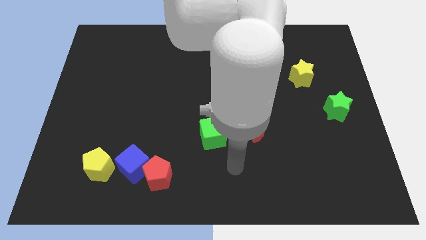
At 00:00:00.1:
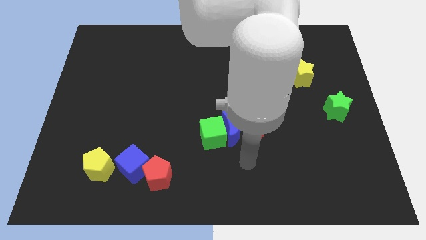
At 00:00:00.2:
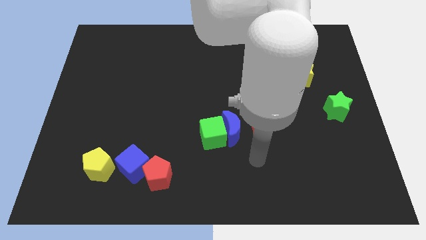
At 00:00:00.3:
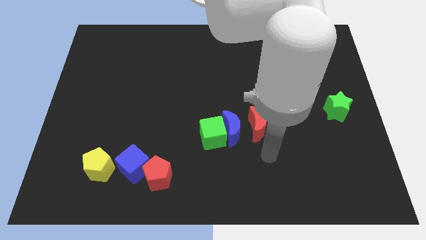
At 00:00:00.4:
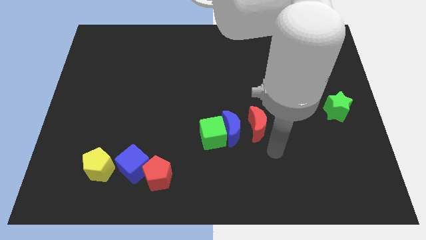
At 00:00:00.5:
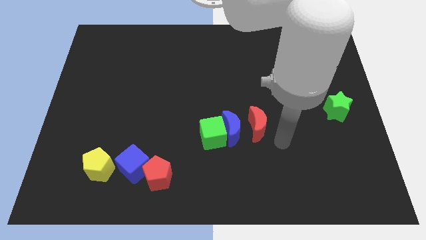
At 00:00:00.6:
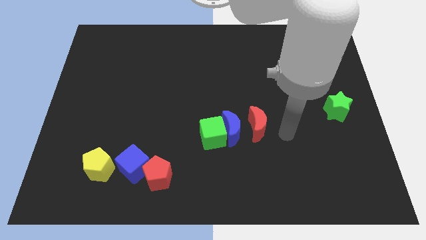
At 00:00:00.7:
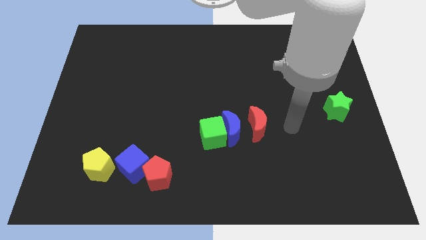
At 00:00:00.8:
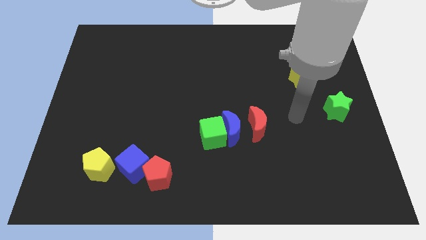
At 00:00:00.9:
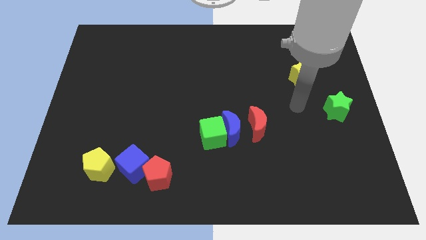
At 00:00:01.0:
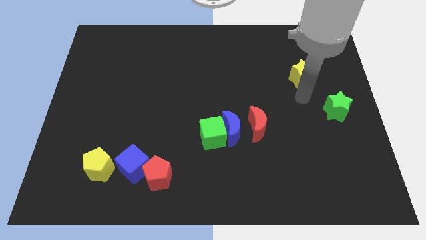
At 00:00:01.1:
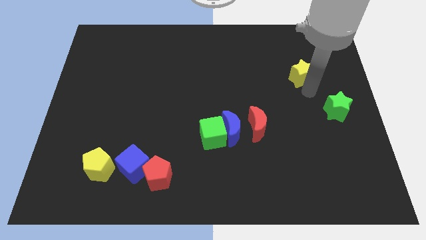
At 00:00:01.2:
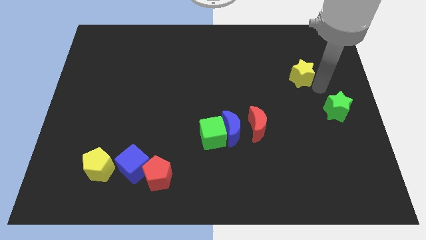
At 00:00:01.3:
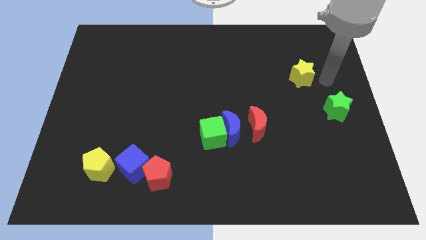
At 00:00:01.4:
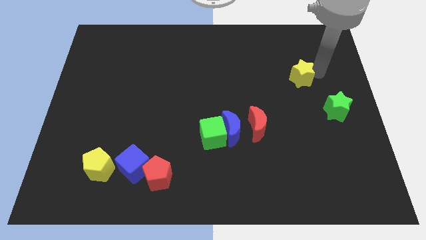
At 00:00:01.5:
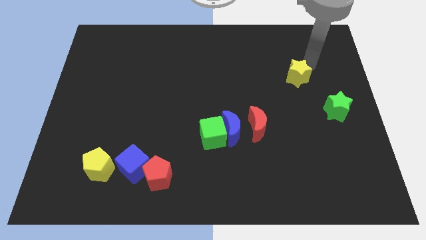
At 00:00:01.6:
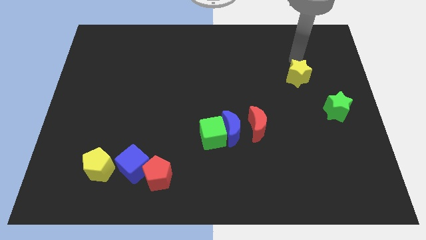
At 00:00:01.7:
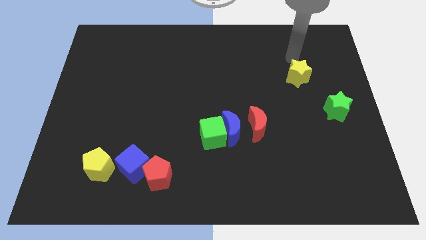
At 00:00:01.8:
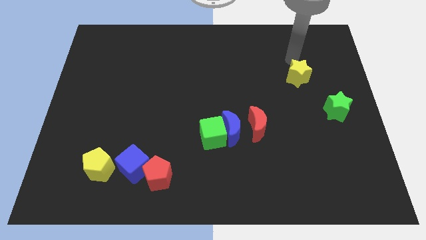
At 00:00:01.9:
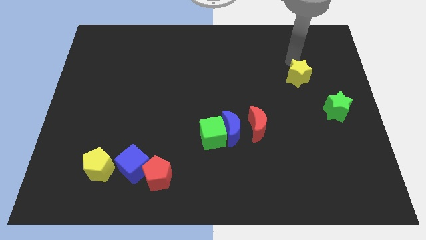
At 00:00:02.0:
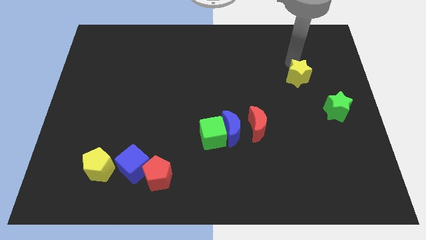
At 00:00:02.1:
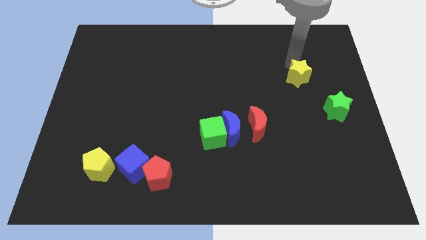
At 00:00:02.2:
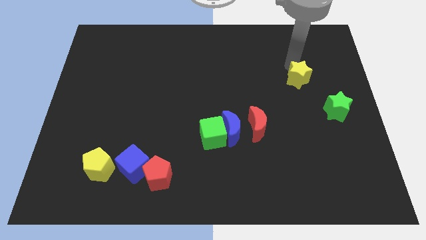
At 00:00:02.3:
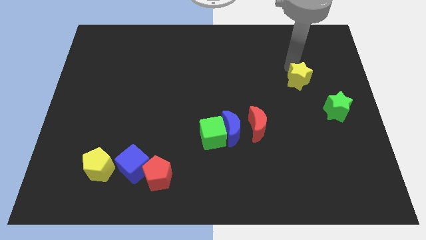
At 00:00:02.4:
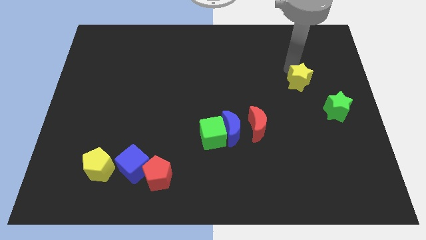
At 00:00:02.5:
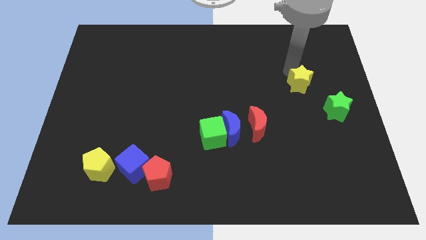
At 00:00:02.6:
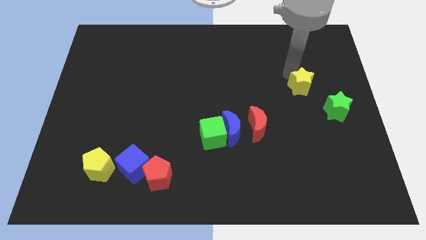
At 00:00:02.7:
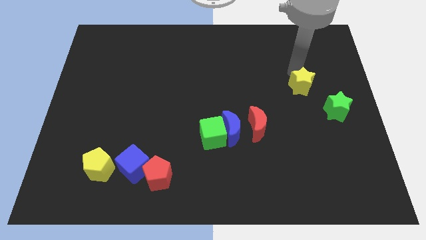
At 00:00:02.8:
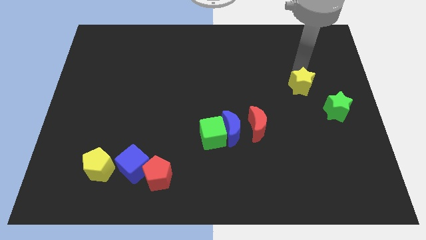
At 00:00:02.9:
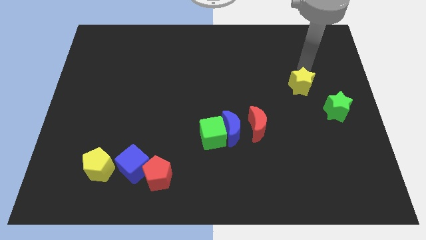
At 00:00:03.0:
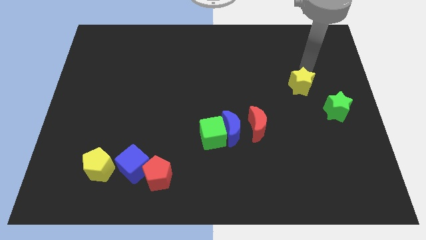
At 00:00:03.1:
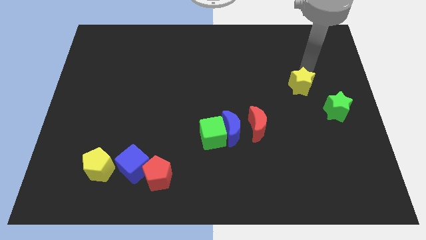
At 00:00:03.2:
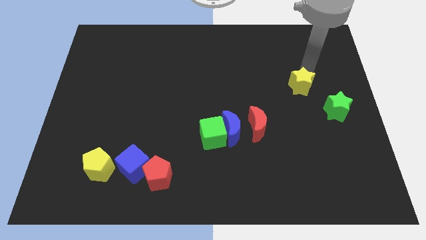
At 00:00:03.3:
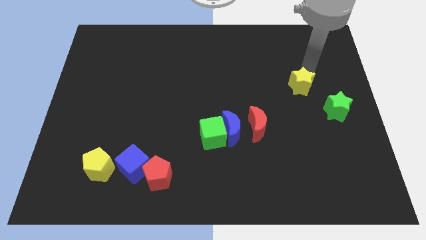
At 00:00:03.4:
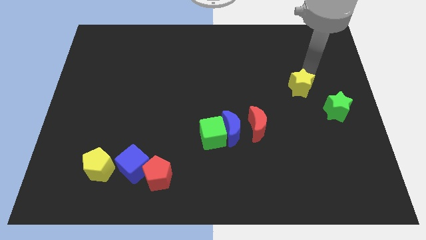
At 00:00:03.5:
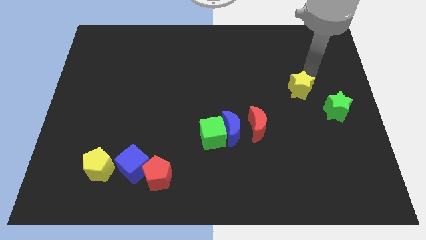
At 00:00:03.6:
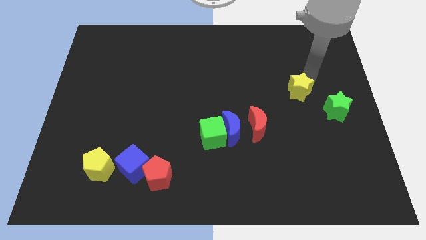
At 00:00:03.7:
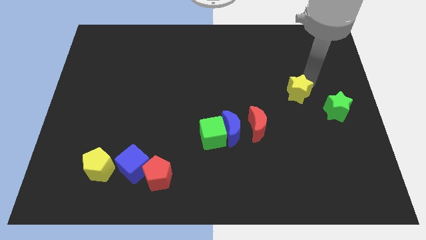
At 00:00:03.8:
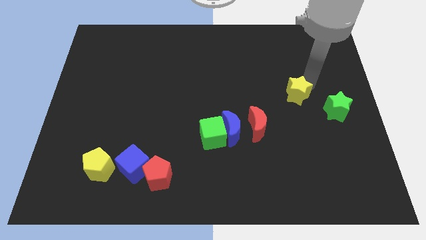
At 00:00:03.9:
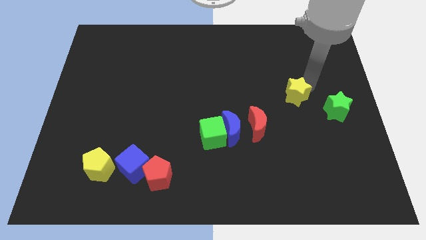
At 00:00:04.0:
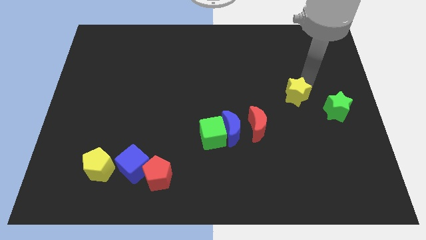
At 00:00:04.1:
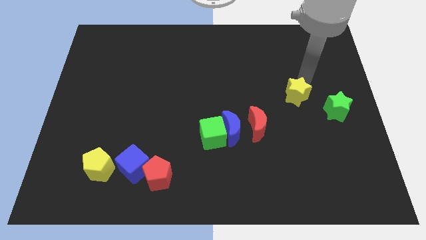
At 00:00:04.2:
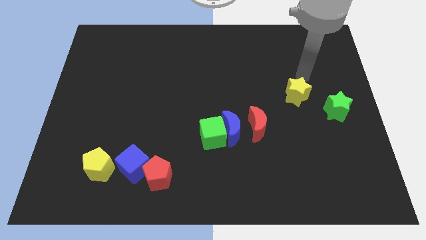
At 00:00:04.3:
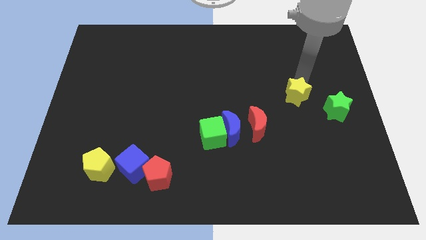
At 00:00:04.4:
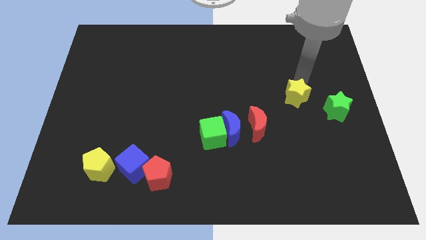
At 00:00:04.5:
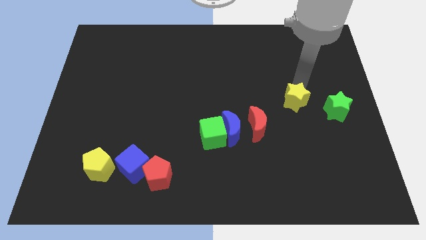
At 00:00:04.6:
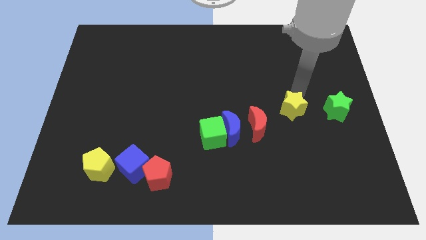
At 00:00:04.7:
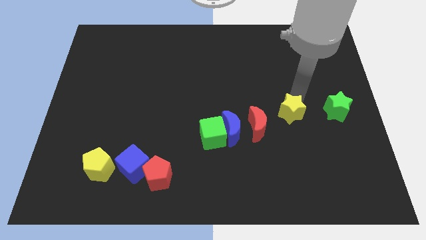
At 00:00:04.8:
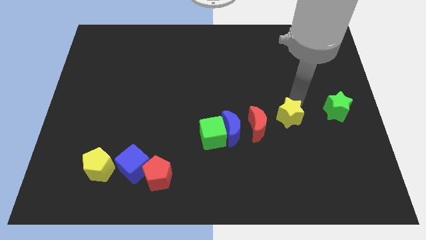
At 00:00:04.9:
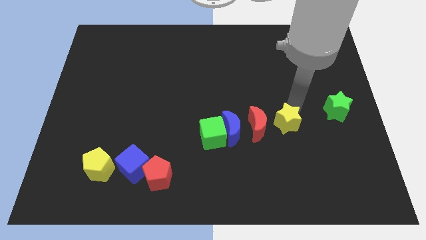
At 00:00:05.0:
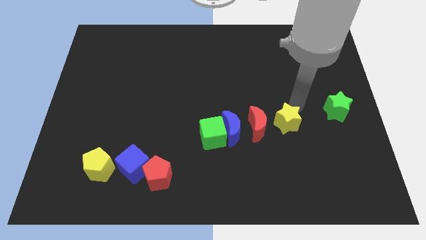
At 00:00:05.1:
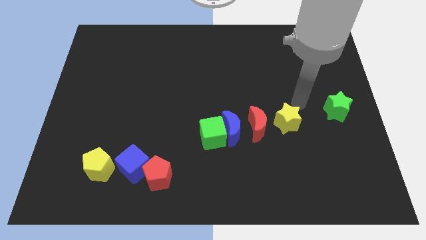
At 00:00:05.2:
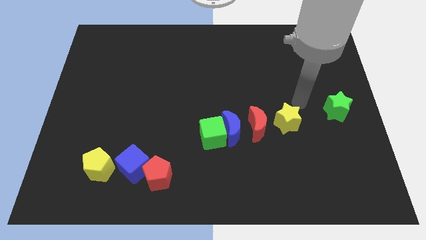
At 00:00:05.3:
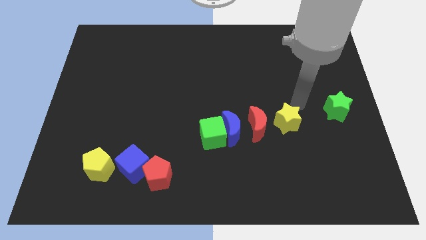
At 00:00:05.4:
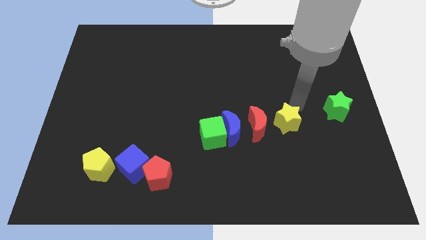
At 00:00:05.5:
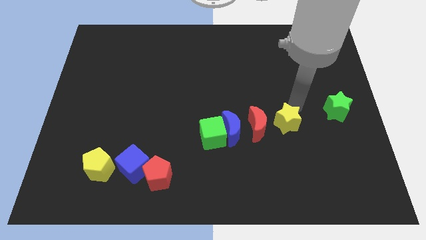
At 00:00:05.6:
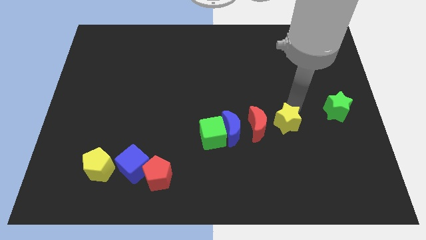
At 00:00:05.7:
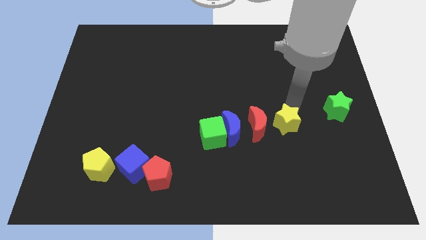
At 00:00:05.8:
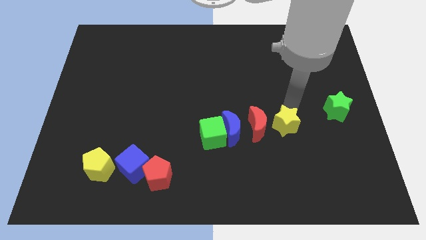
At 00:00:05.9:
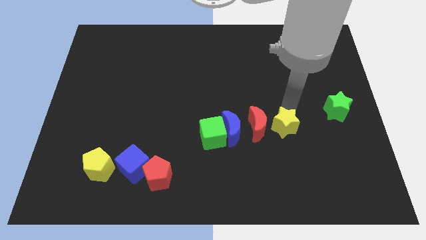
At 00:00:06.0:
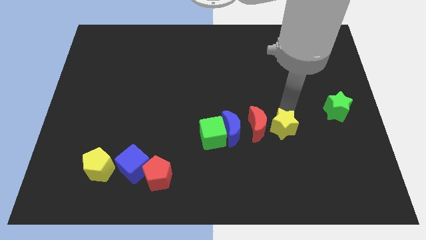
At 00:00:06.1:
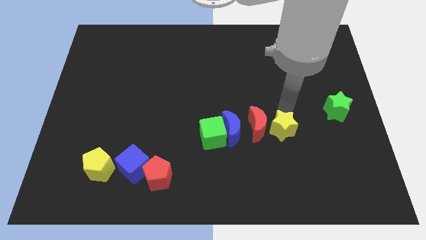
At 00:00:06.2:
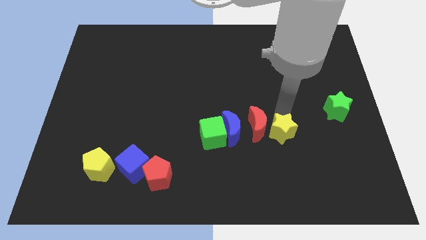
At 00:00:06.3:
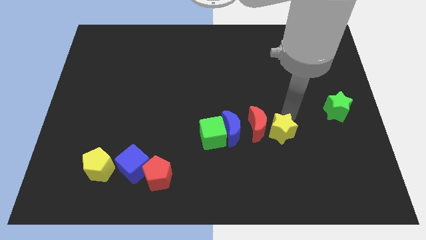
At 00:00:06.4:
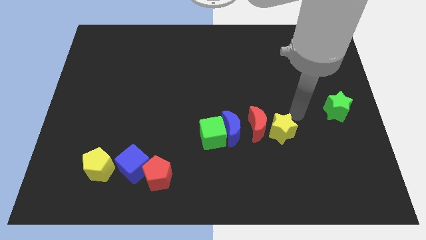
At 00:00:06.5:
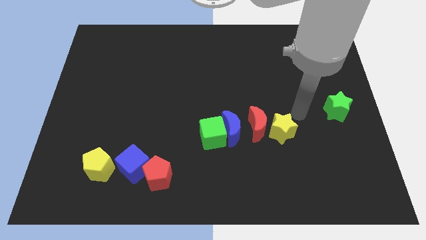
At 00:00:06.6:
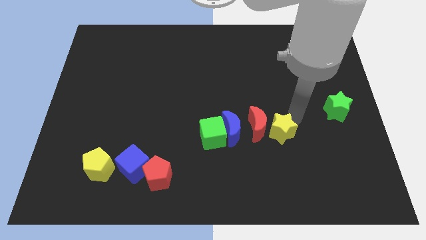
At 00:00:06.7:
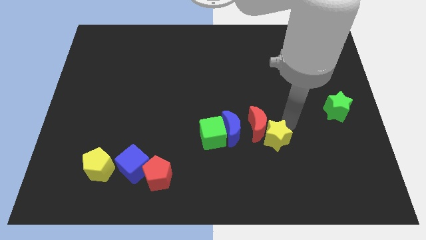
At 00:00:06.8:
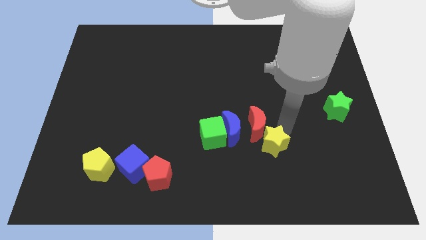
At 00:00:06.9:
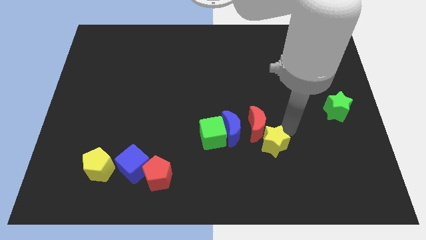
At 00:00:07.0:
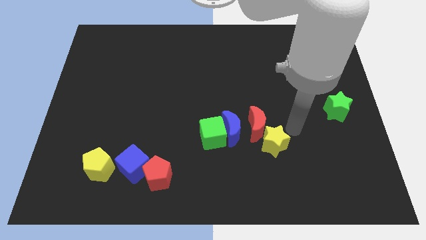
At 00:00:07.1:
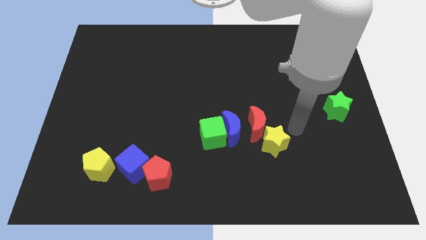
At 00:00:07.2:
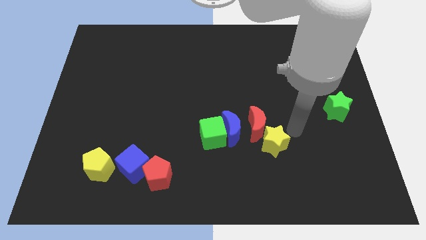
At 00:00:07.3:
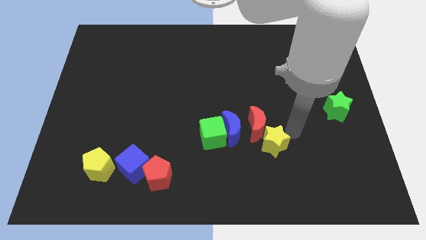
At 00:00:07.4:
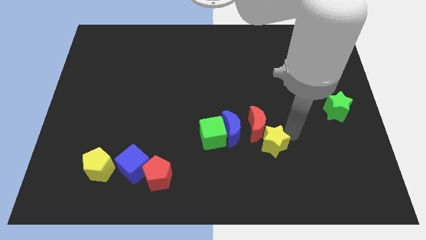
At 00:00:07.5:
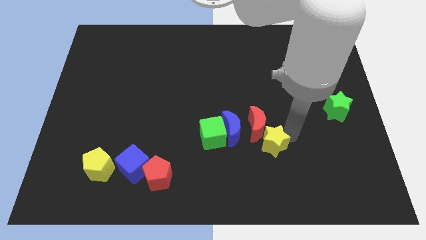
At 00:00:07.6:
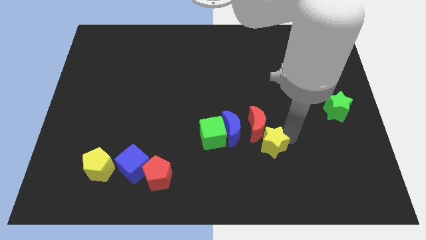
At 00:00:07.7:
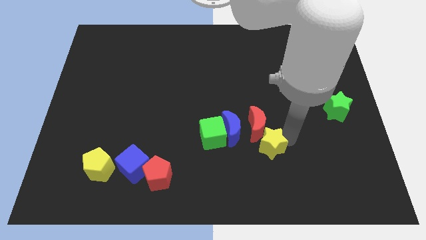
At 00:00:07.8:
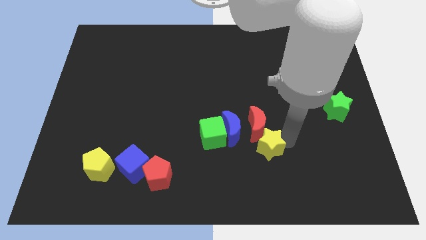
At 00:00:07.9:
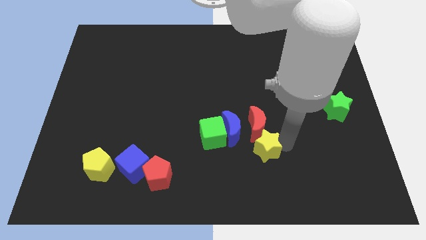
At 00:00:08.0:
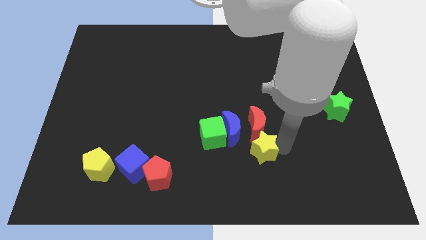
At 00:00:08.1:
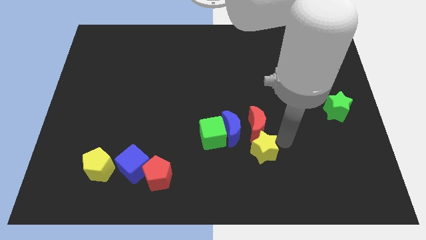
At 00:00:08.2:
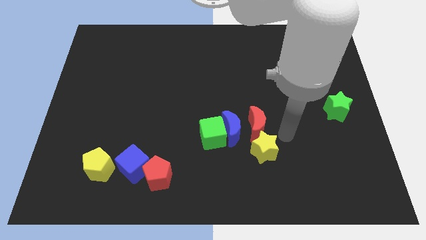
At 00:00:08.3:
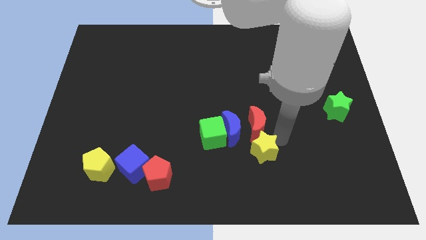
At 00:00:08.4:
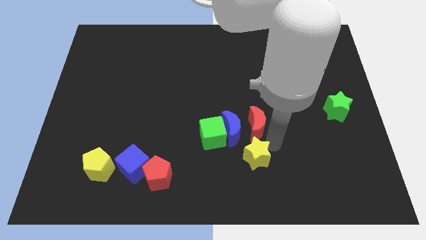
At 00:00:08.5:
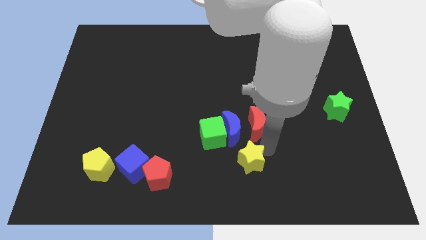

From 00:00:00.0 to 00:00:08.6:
push the yellow star below the blue moon
